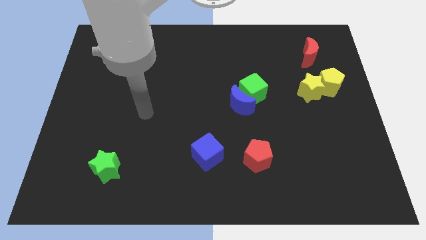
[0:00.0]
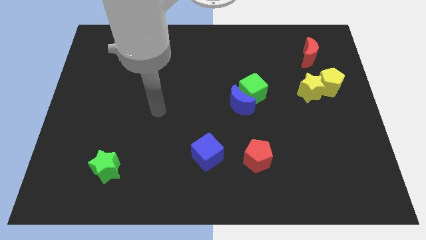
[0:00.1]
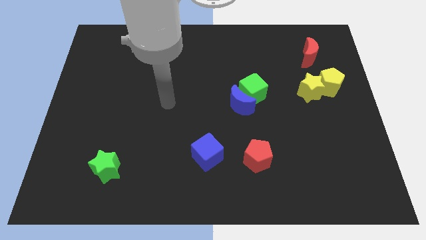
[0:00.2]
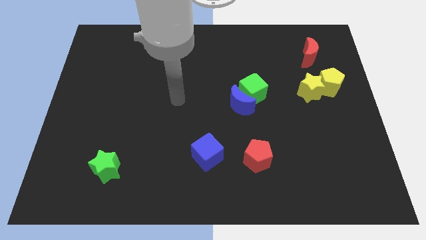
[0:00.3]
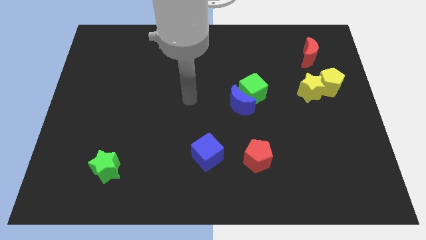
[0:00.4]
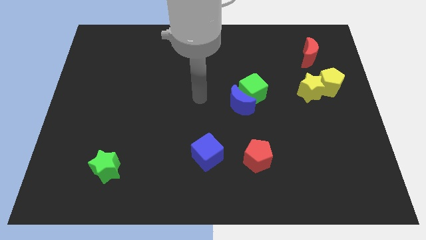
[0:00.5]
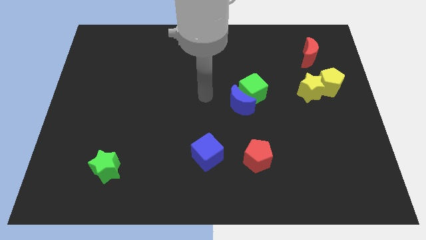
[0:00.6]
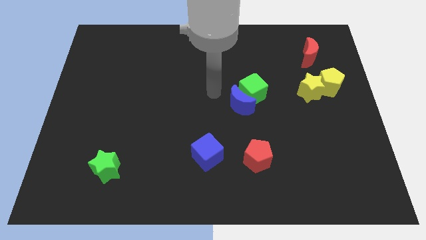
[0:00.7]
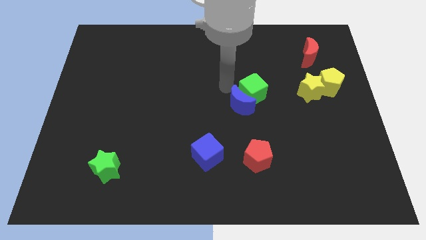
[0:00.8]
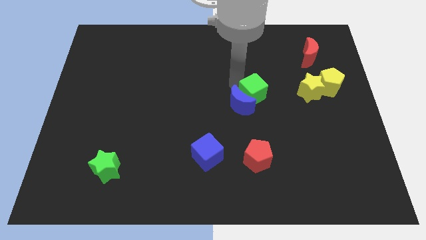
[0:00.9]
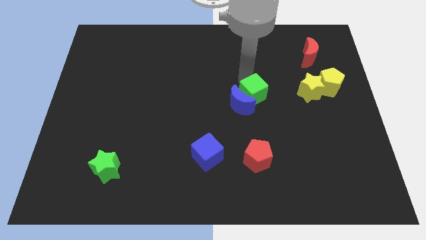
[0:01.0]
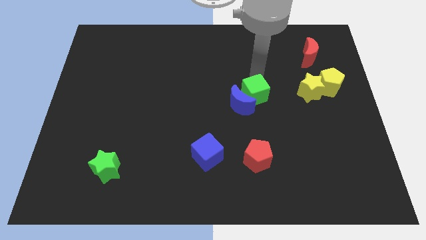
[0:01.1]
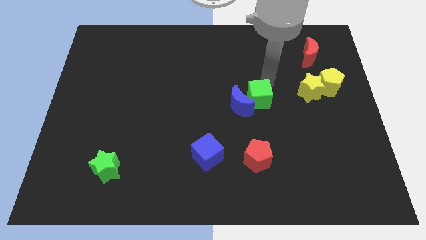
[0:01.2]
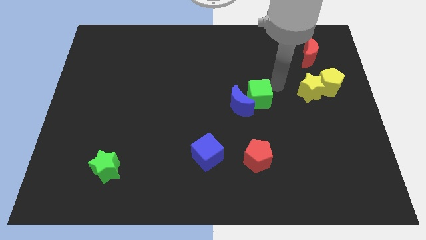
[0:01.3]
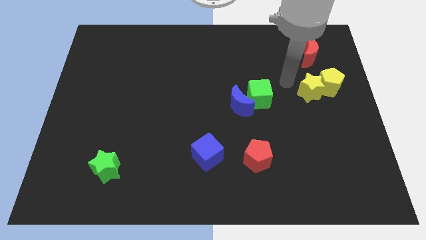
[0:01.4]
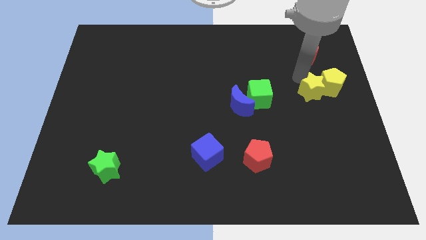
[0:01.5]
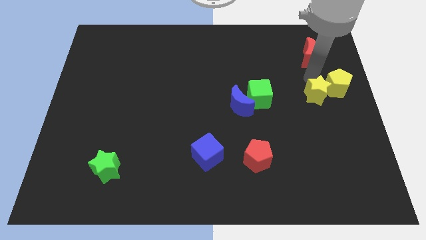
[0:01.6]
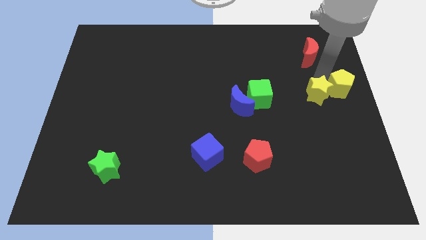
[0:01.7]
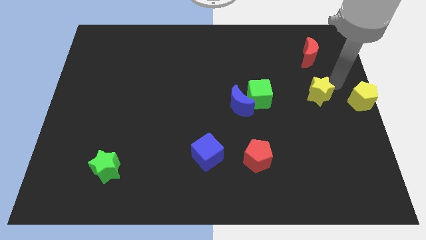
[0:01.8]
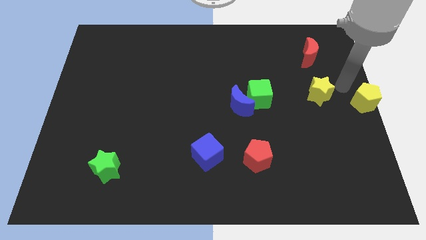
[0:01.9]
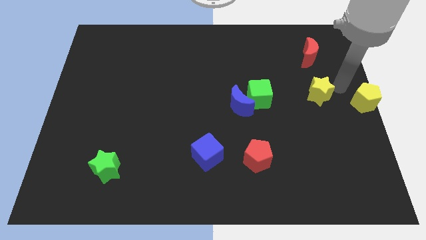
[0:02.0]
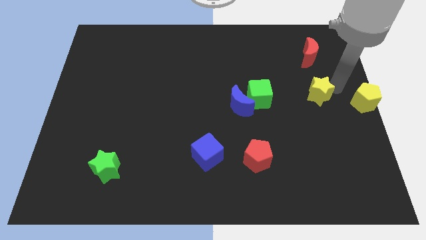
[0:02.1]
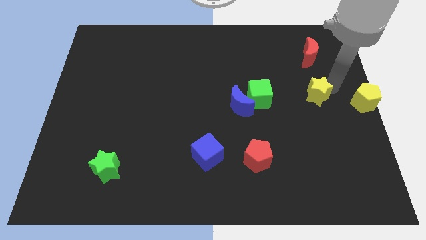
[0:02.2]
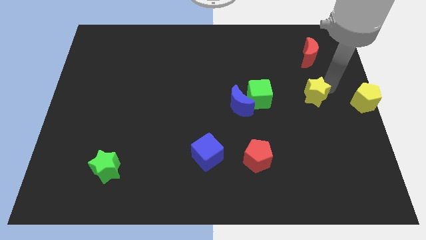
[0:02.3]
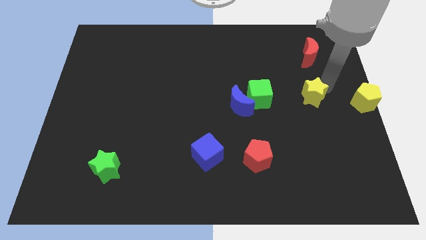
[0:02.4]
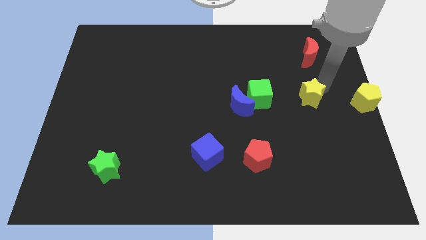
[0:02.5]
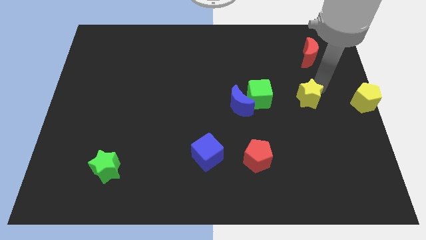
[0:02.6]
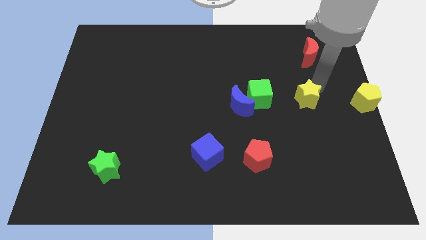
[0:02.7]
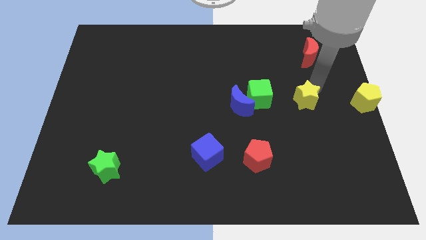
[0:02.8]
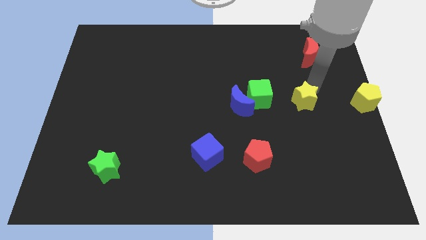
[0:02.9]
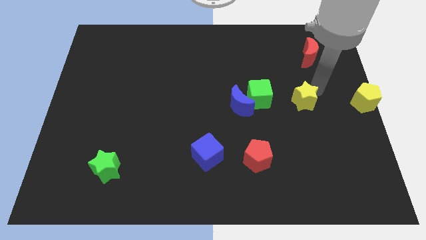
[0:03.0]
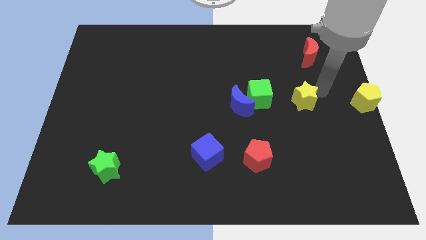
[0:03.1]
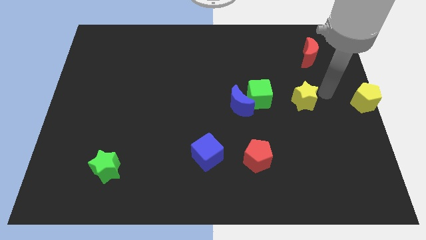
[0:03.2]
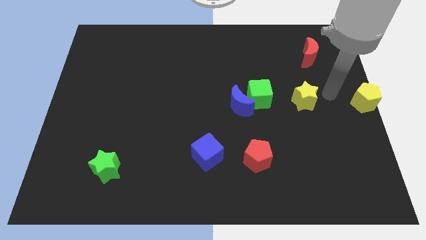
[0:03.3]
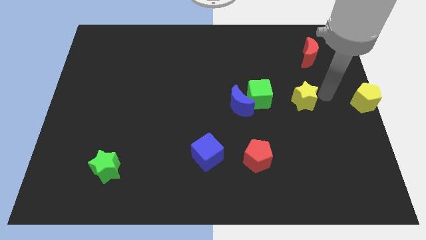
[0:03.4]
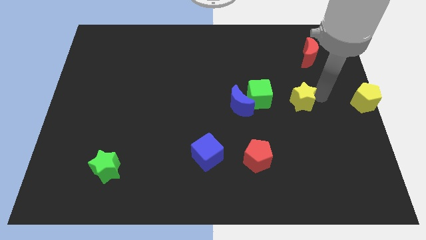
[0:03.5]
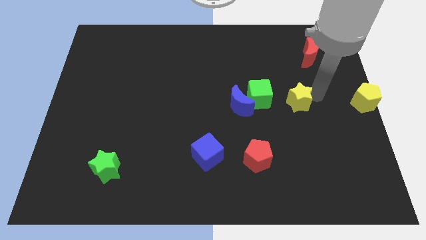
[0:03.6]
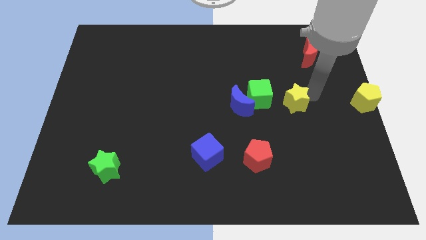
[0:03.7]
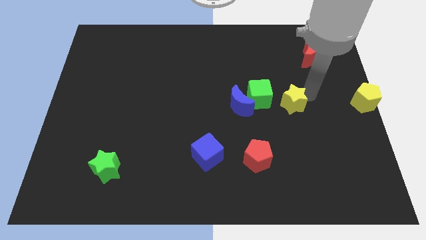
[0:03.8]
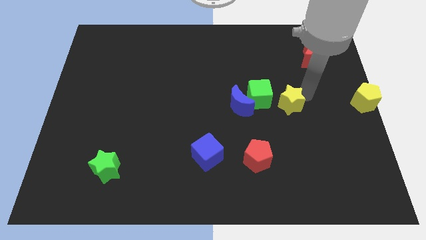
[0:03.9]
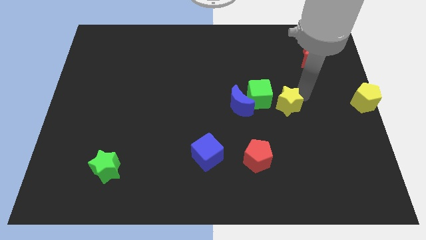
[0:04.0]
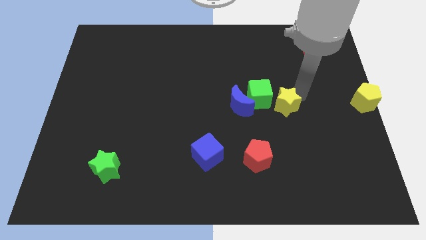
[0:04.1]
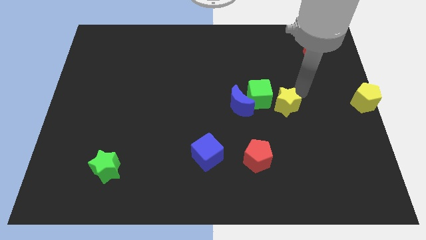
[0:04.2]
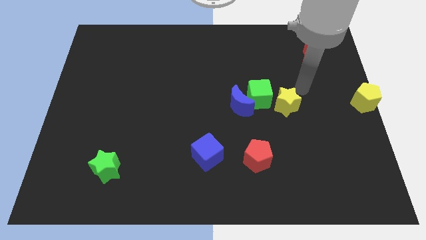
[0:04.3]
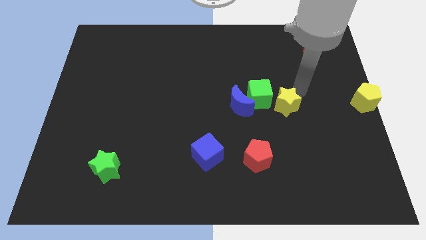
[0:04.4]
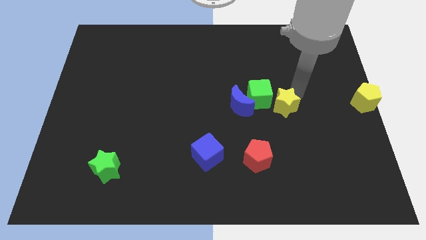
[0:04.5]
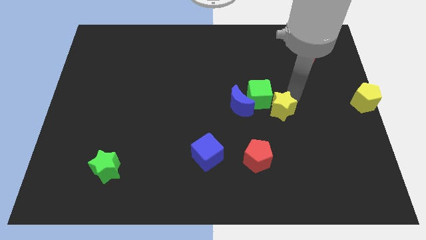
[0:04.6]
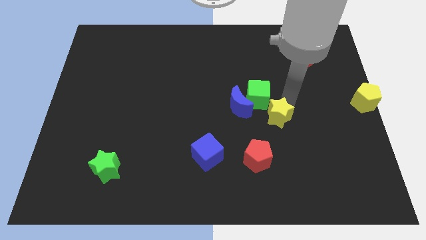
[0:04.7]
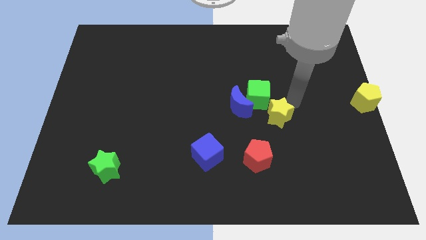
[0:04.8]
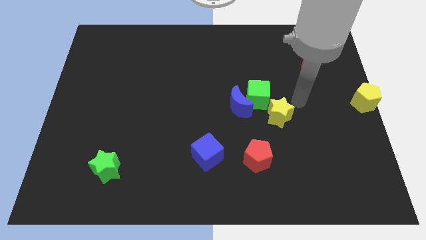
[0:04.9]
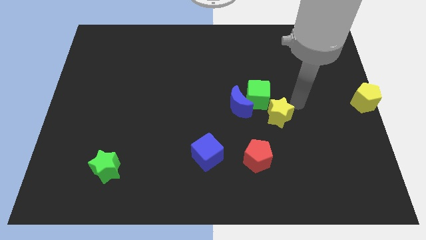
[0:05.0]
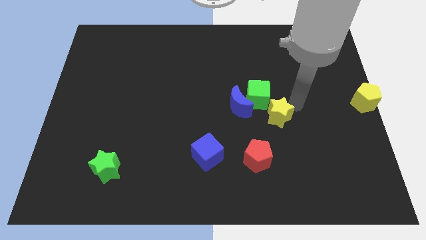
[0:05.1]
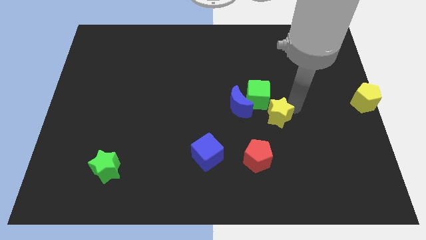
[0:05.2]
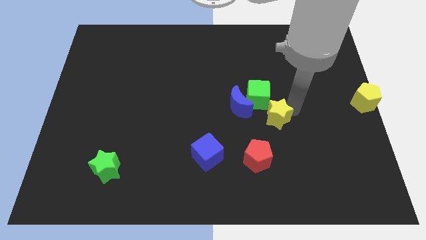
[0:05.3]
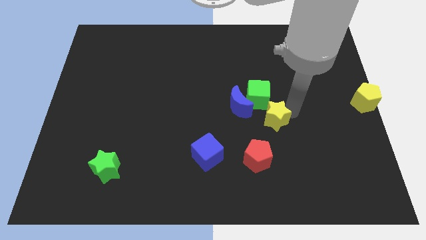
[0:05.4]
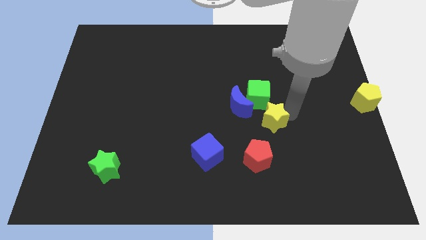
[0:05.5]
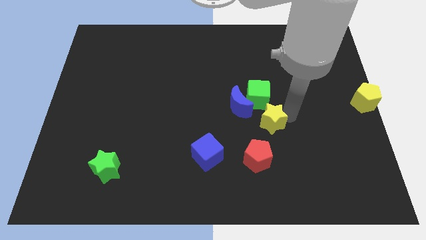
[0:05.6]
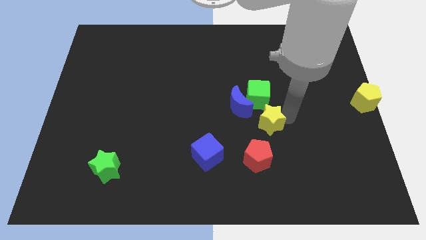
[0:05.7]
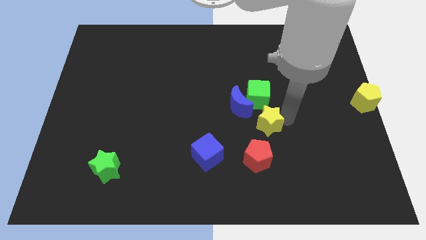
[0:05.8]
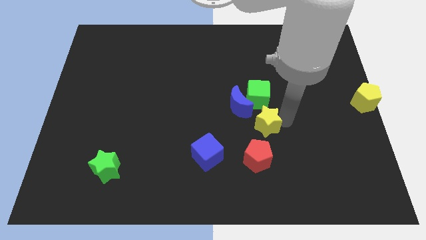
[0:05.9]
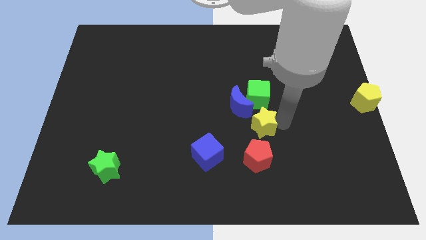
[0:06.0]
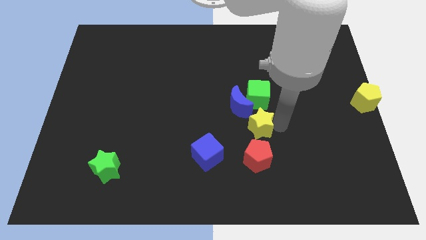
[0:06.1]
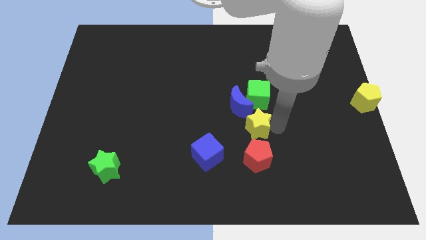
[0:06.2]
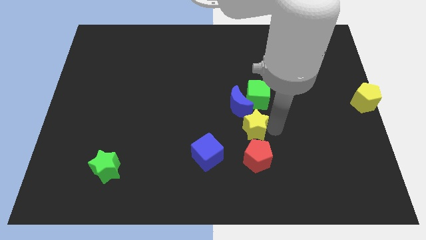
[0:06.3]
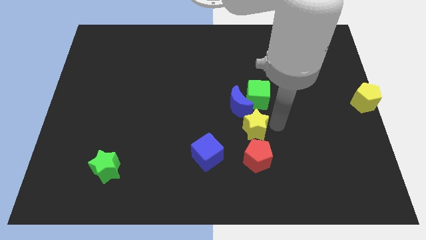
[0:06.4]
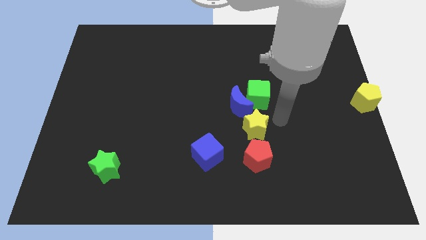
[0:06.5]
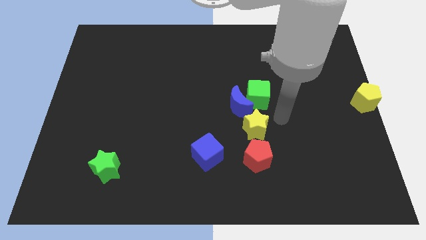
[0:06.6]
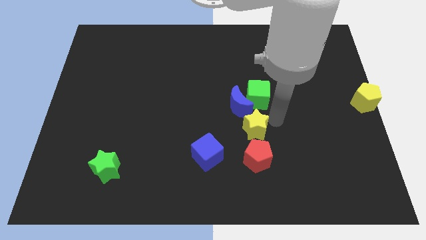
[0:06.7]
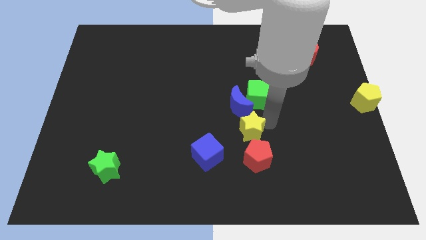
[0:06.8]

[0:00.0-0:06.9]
move the yellow star to the top left of the red pentagon
